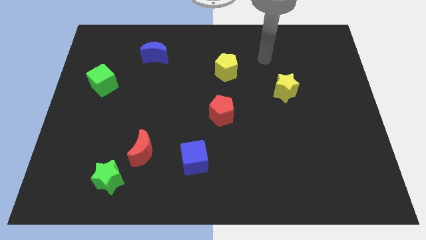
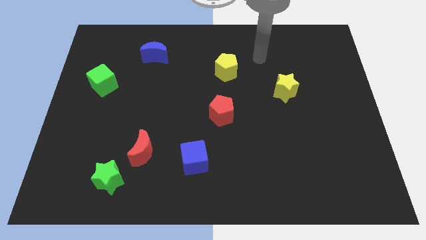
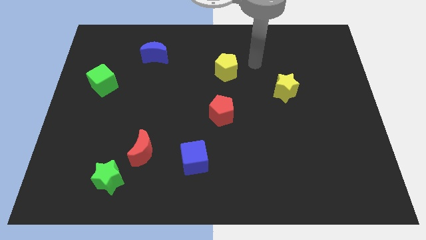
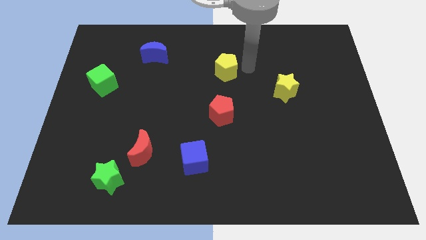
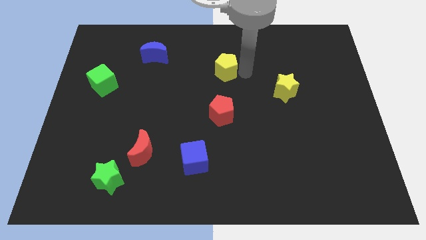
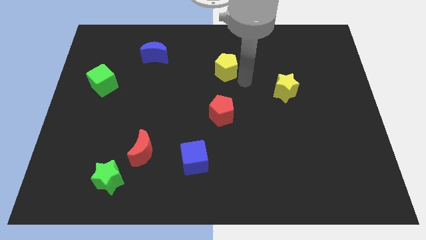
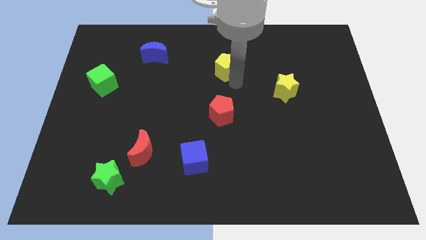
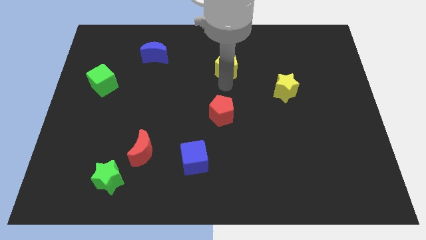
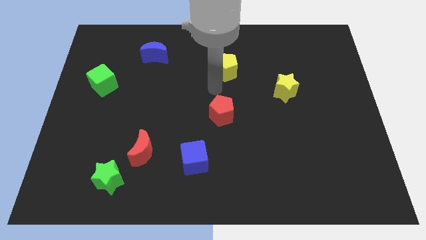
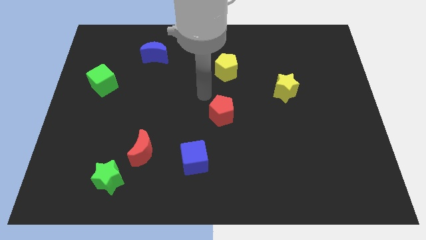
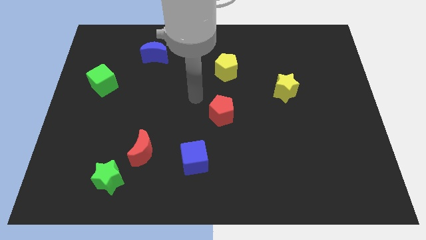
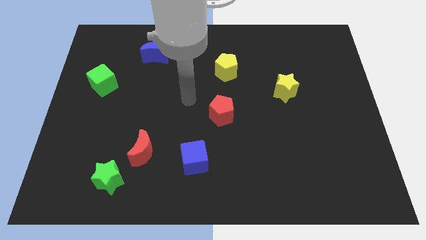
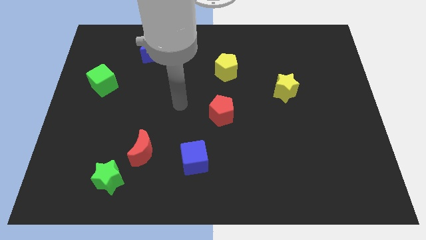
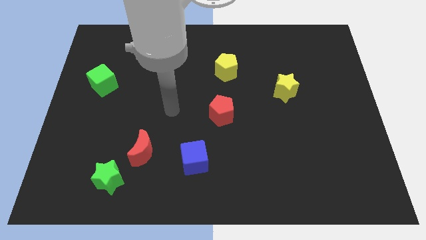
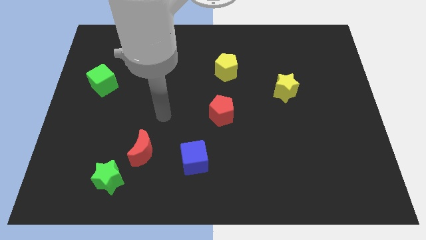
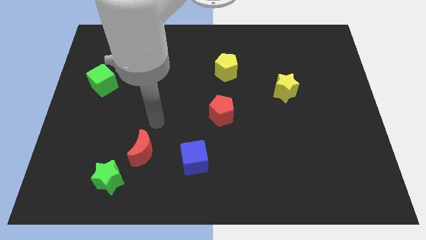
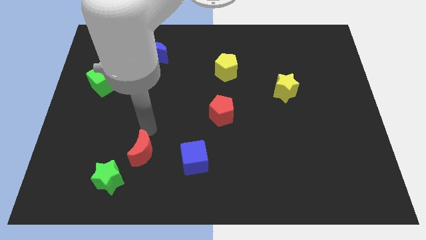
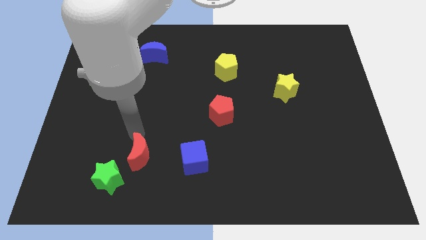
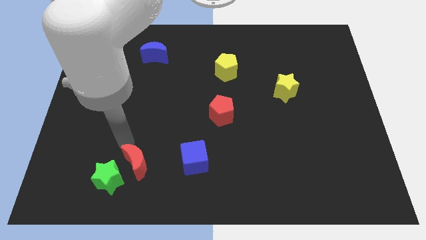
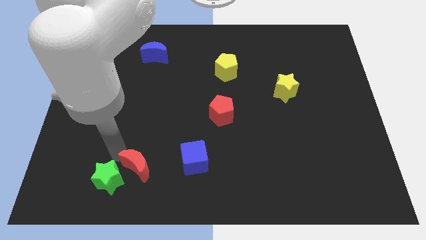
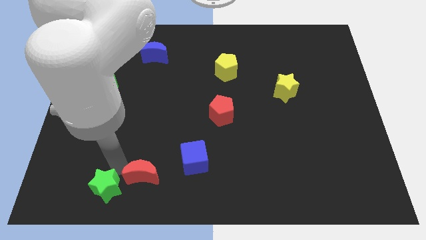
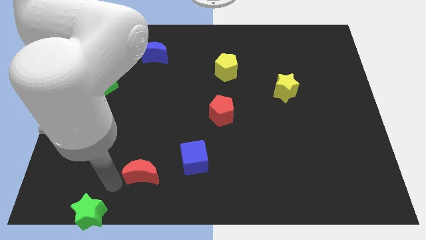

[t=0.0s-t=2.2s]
pull the red moon apart from the green star

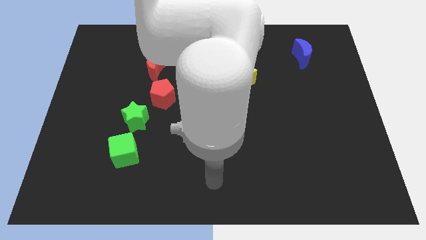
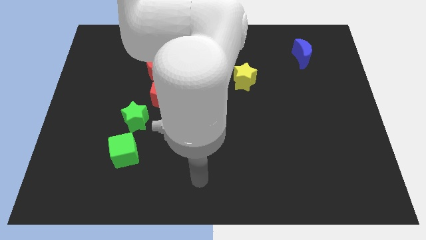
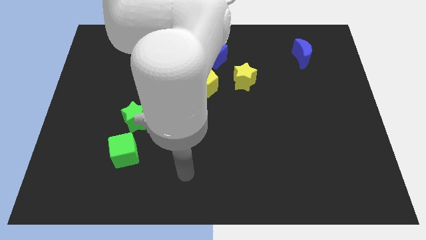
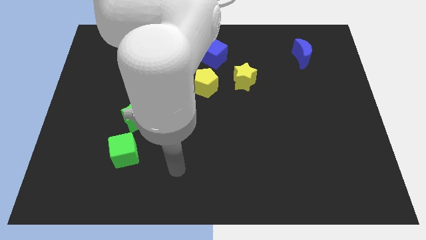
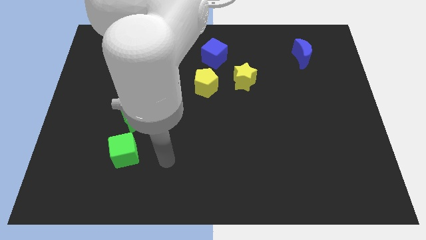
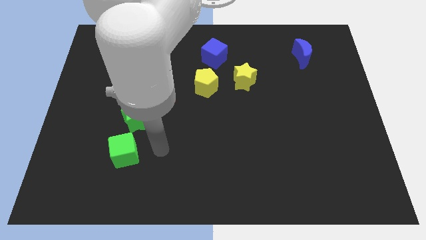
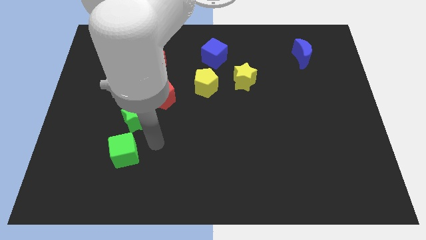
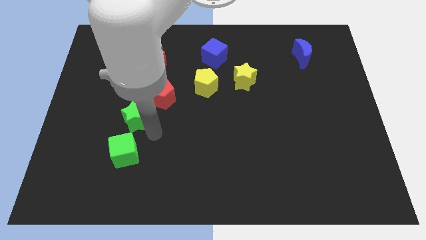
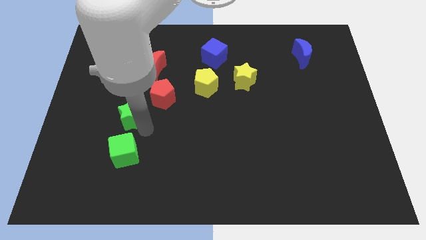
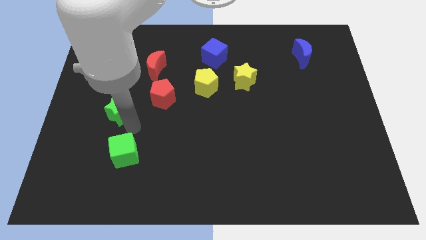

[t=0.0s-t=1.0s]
move the green cube away from the green star

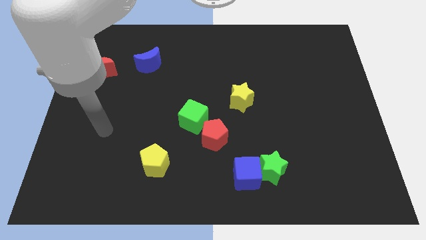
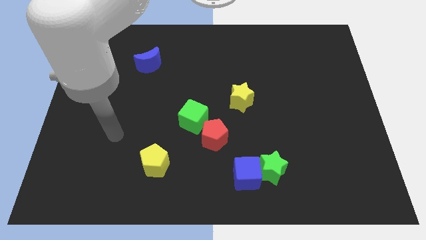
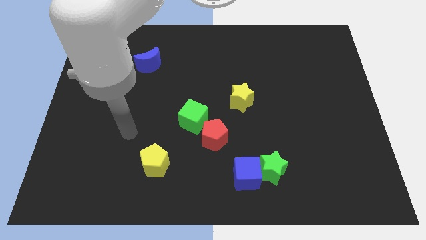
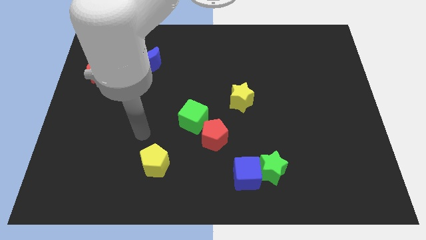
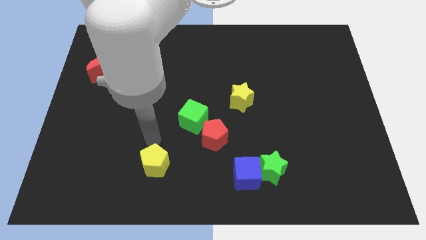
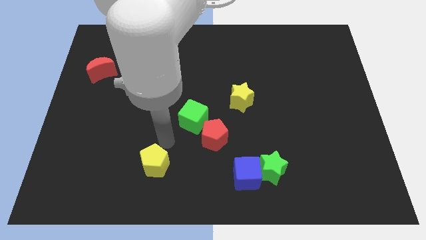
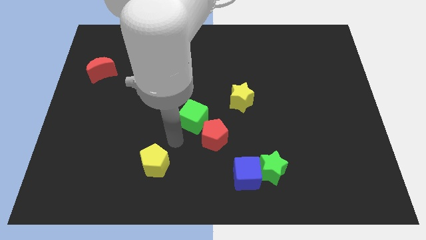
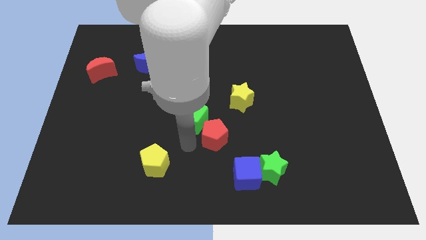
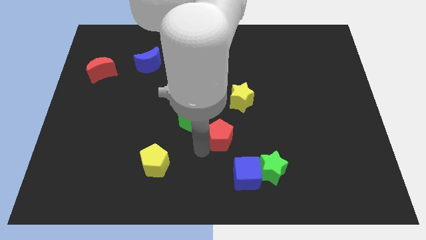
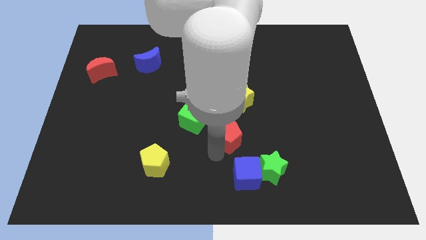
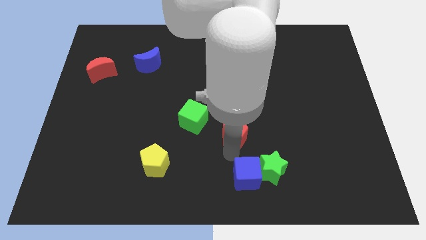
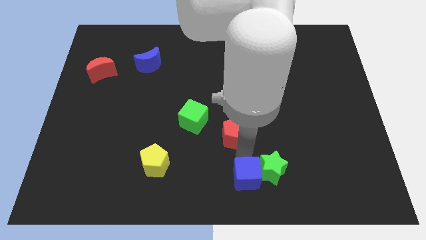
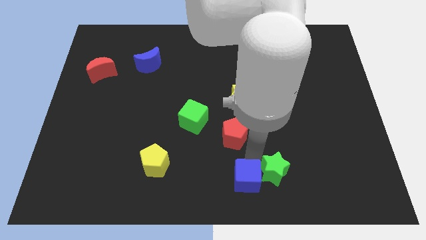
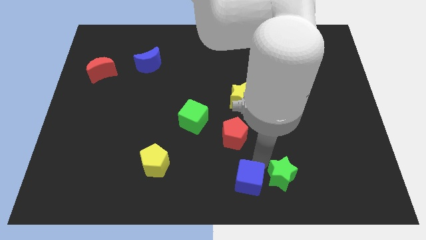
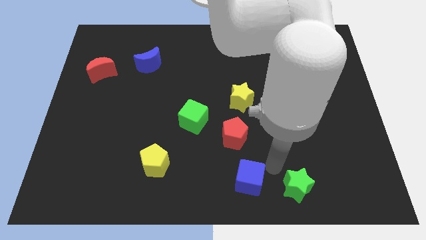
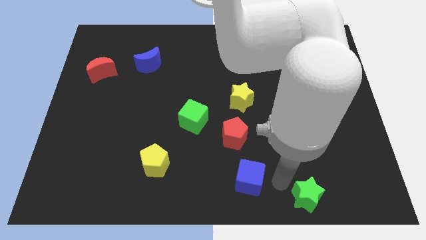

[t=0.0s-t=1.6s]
pull the blue cube apart from the green star

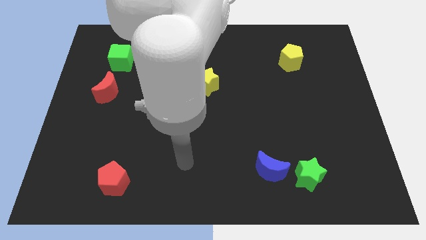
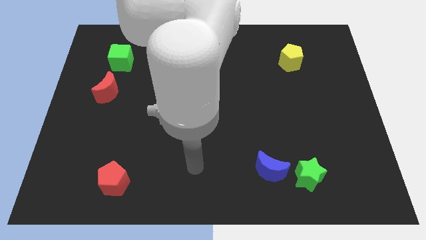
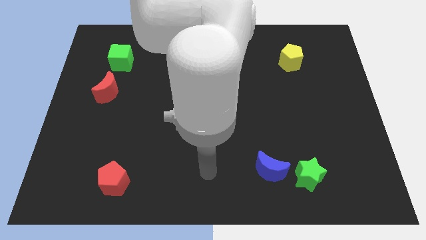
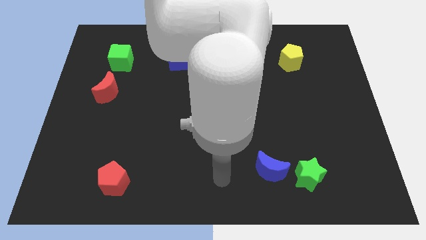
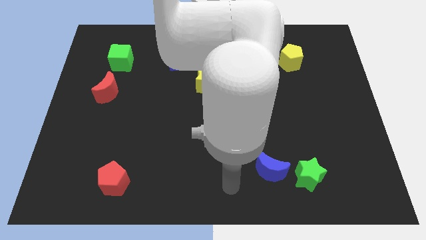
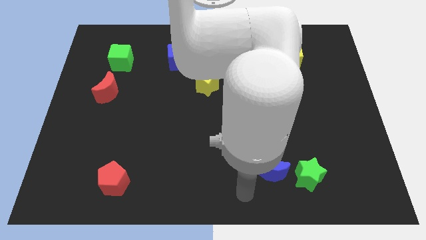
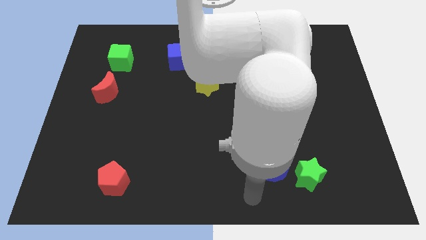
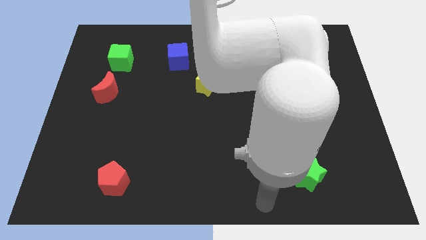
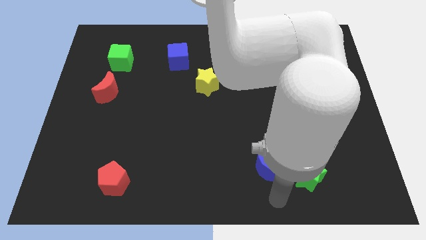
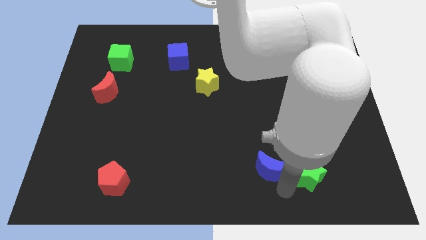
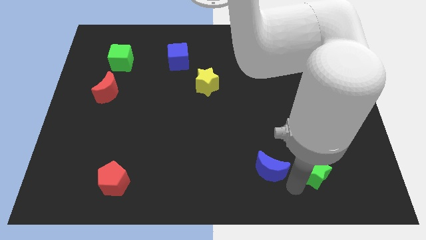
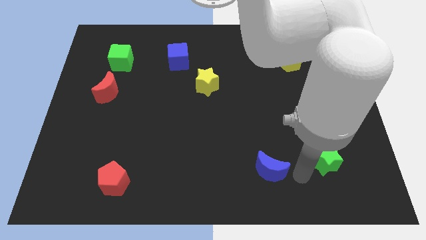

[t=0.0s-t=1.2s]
separate the blue moon from the green star

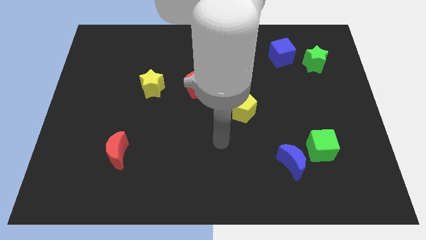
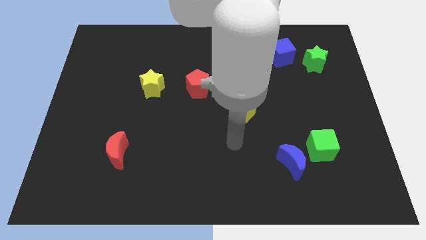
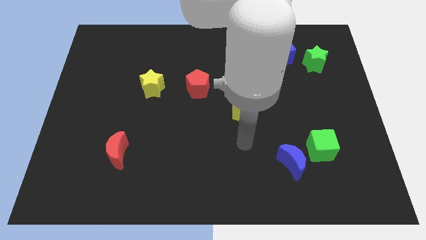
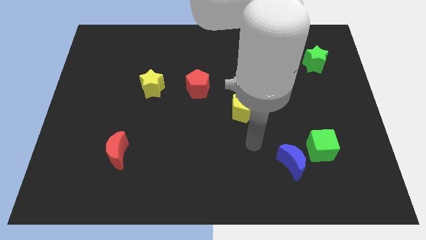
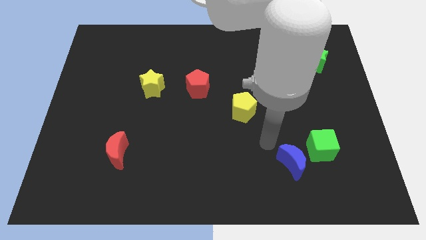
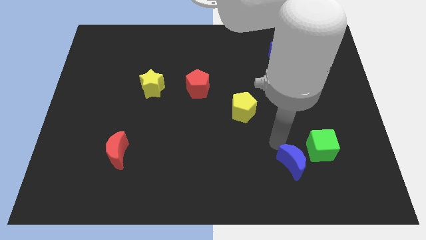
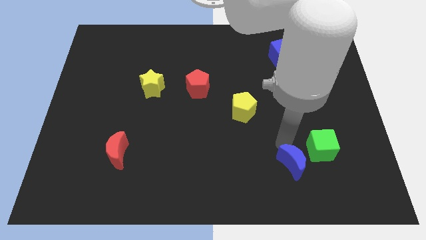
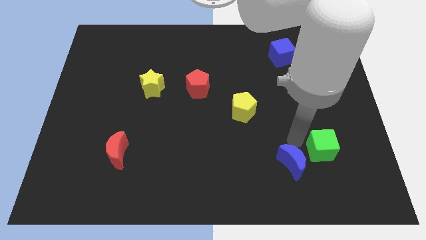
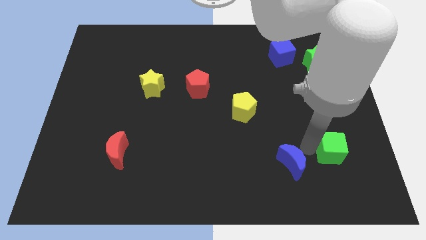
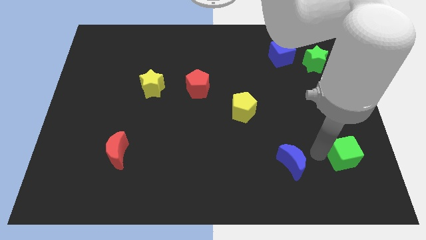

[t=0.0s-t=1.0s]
move the blue moon away from the green cube

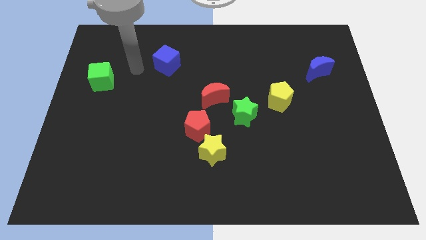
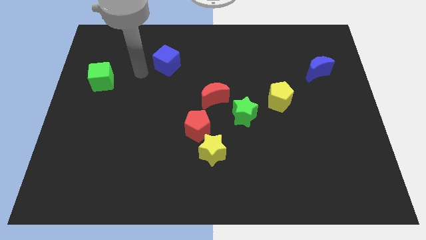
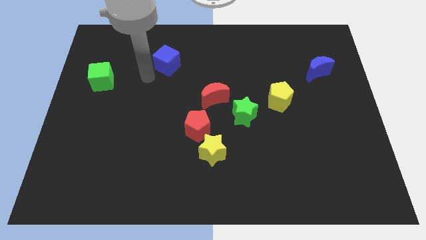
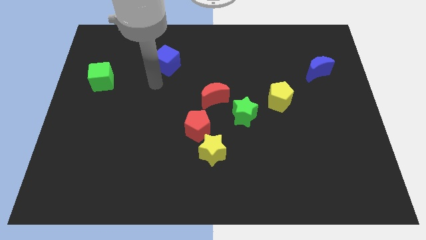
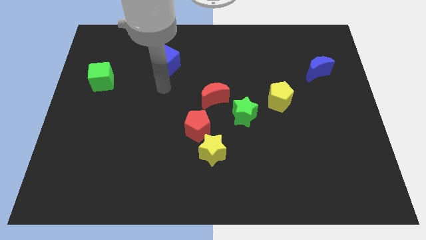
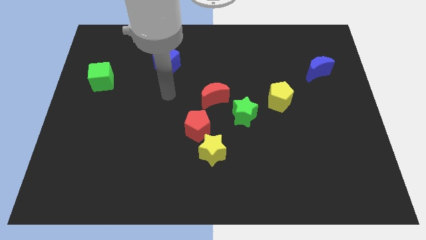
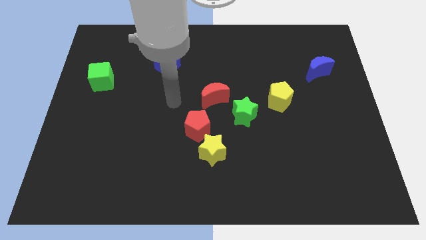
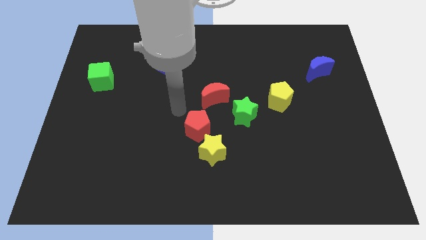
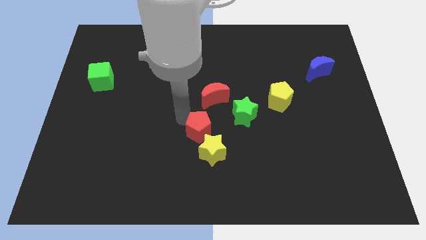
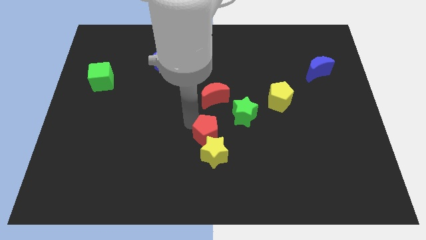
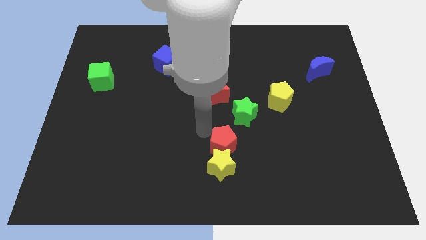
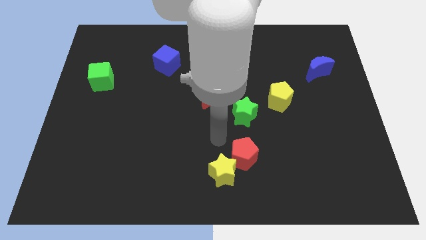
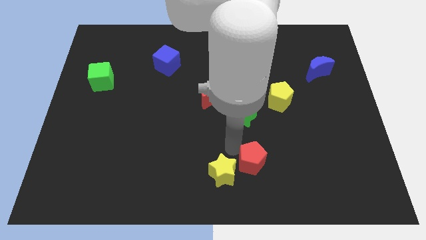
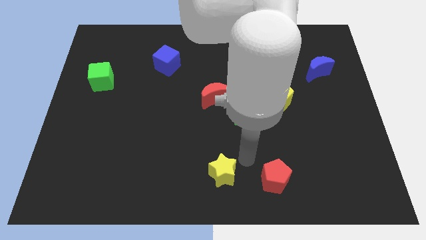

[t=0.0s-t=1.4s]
separate the yellow star from the red pentagon

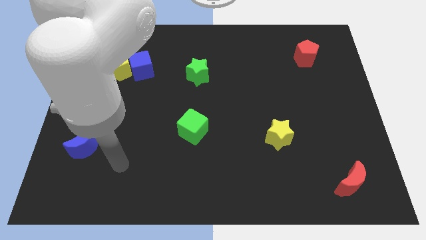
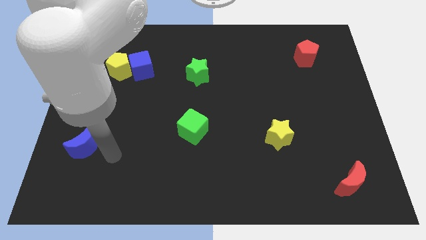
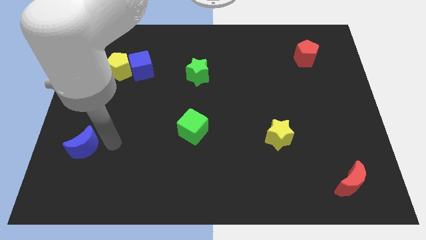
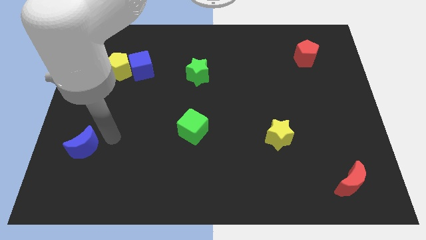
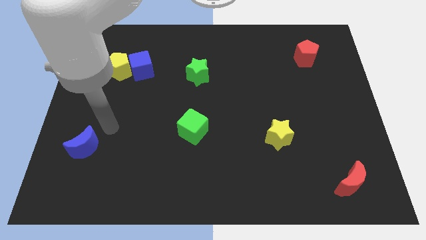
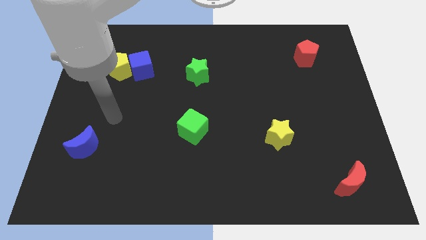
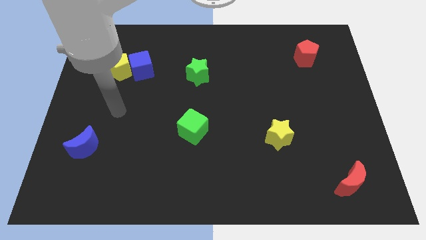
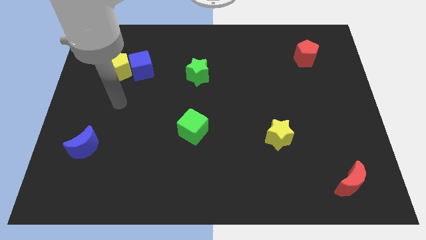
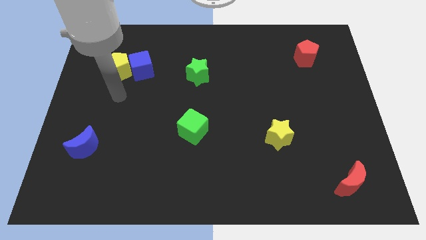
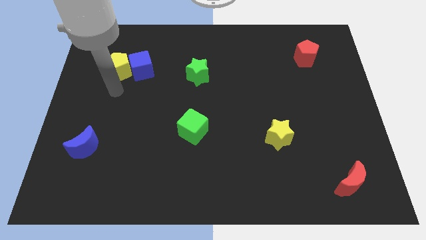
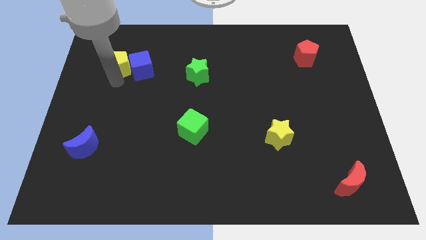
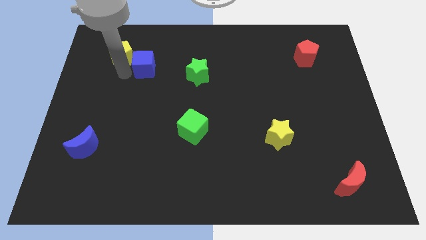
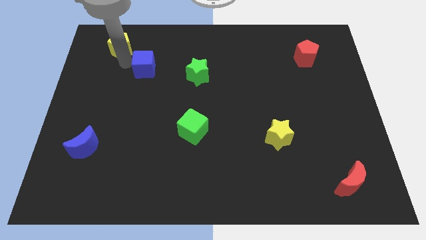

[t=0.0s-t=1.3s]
separate the blue cube from the yellow pentagon
